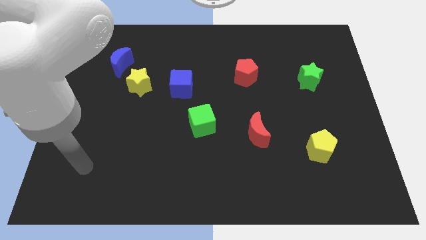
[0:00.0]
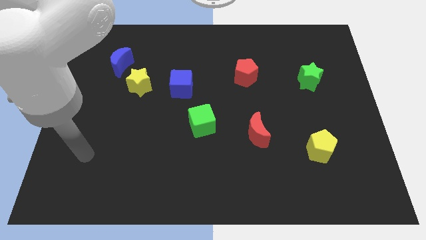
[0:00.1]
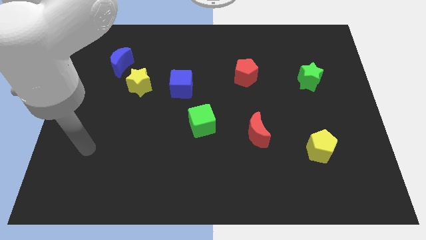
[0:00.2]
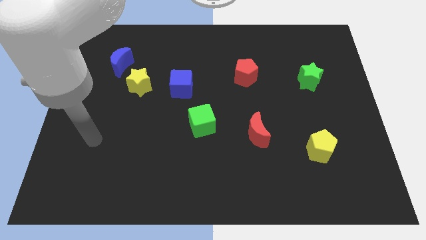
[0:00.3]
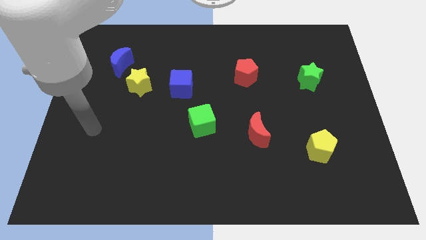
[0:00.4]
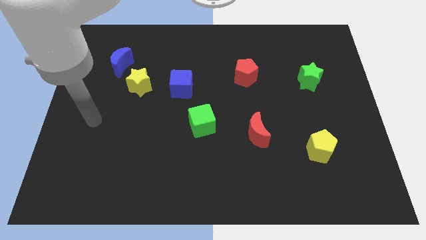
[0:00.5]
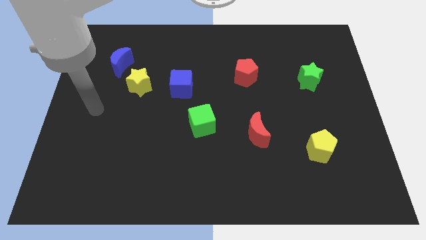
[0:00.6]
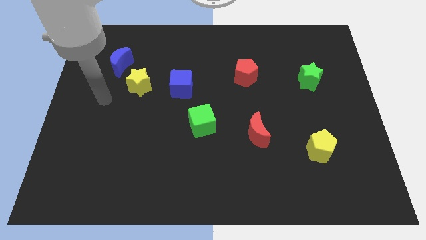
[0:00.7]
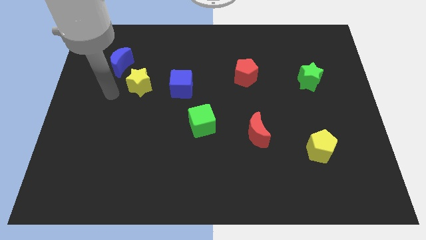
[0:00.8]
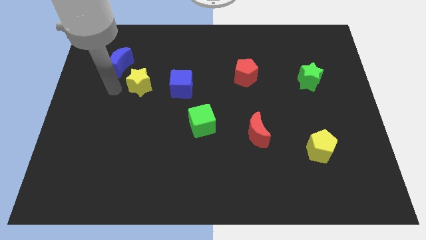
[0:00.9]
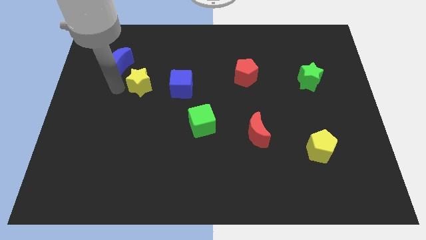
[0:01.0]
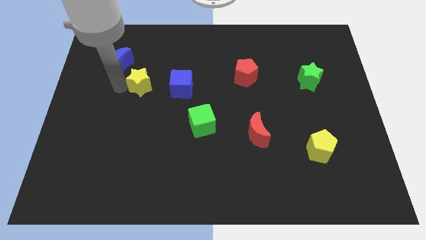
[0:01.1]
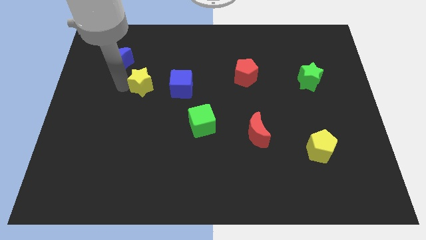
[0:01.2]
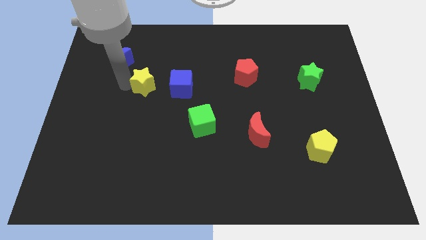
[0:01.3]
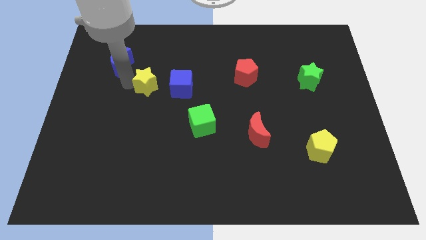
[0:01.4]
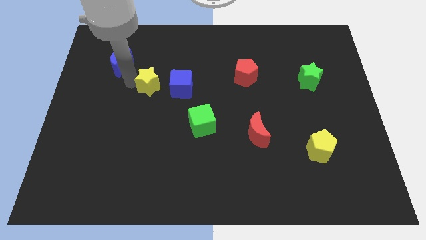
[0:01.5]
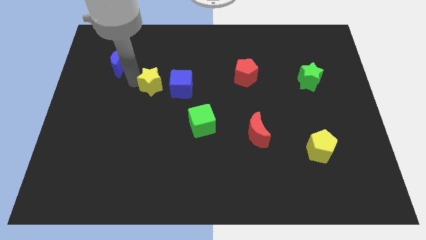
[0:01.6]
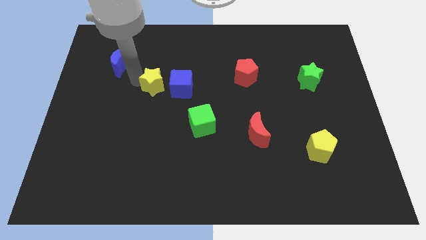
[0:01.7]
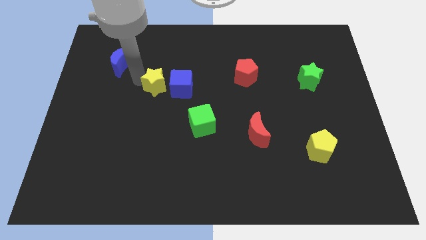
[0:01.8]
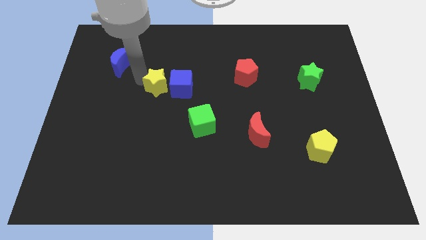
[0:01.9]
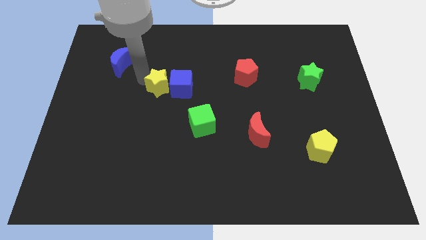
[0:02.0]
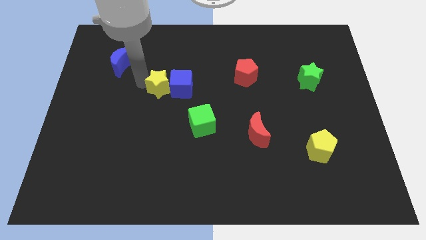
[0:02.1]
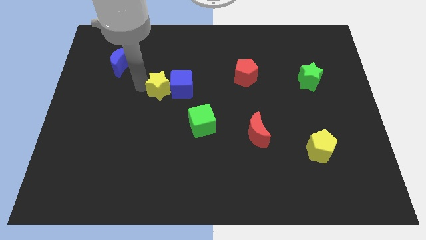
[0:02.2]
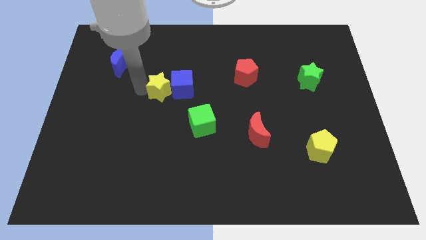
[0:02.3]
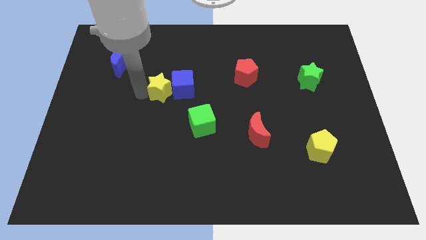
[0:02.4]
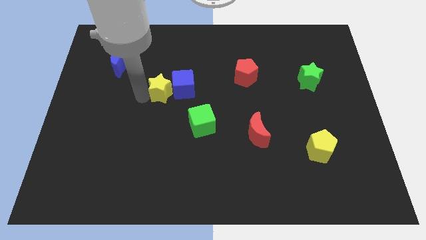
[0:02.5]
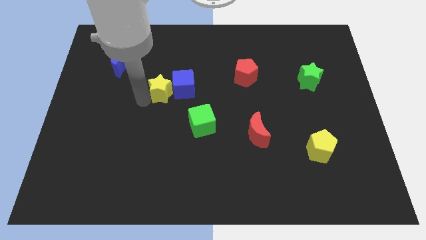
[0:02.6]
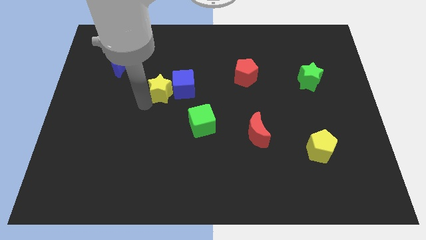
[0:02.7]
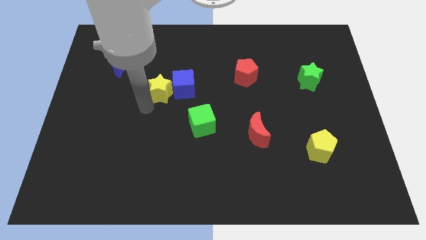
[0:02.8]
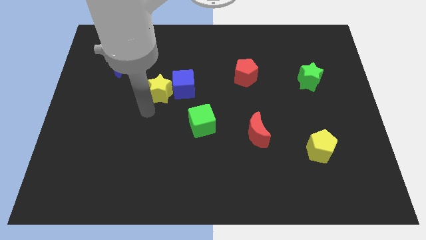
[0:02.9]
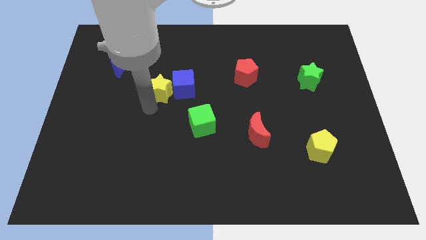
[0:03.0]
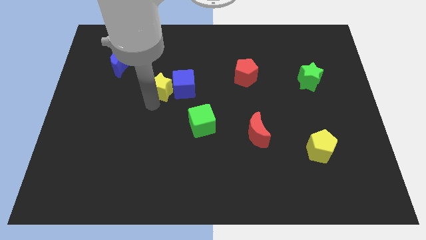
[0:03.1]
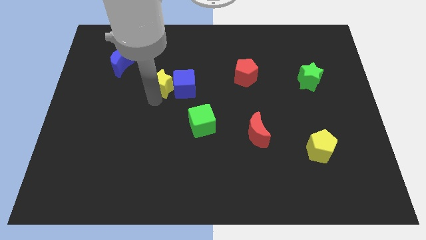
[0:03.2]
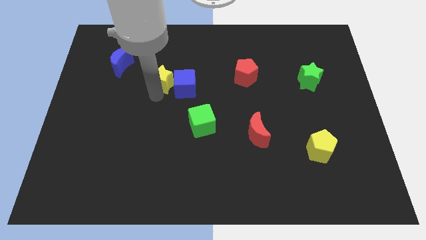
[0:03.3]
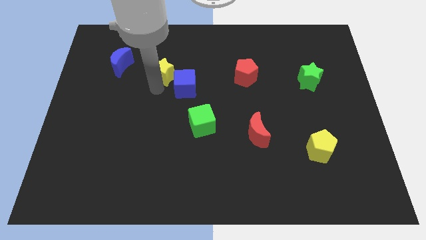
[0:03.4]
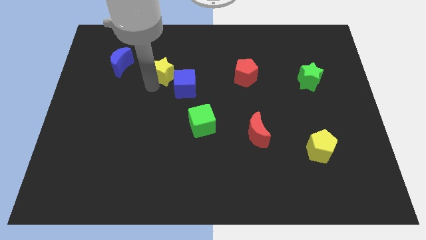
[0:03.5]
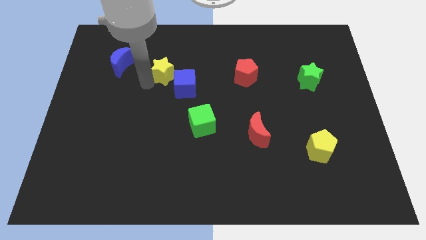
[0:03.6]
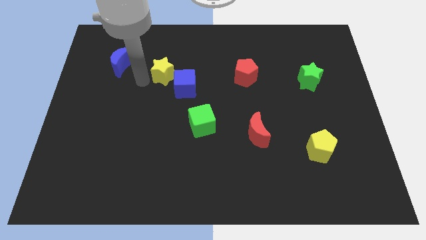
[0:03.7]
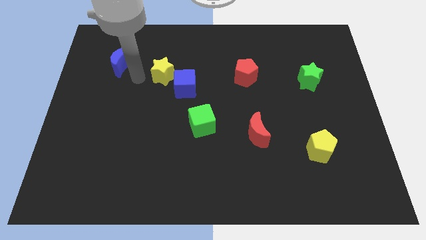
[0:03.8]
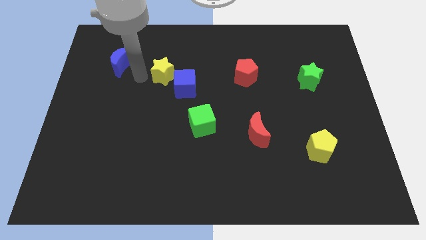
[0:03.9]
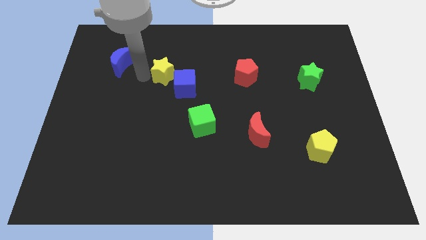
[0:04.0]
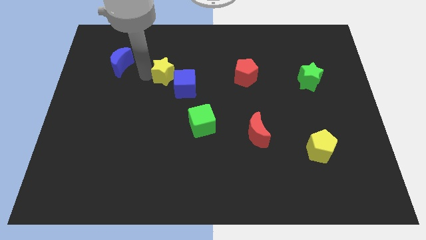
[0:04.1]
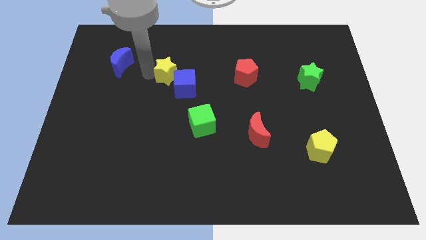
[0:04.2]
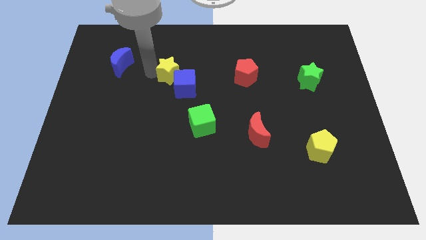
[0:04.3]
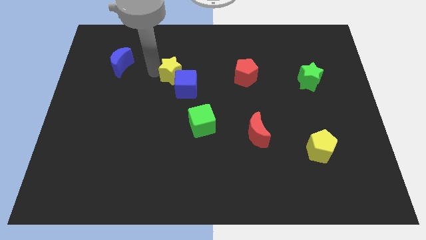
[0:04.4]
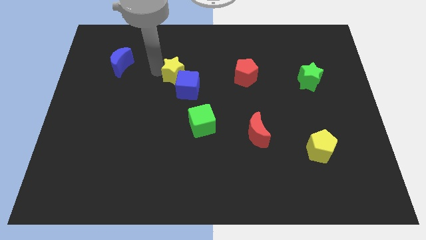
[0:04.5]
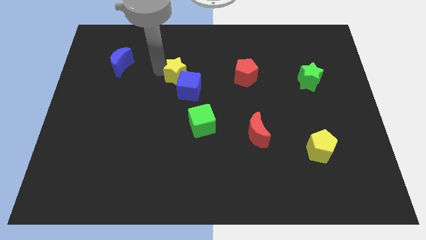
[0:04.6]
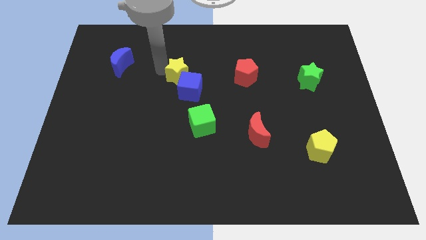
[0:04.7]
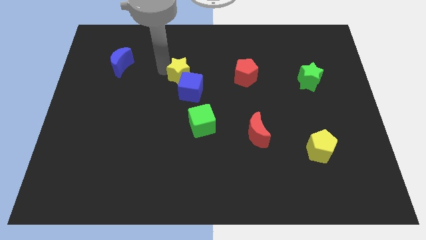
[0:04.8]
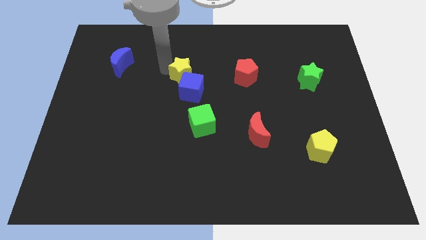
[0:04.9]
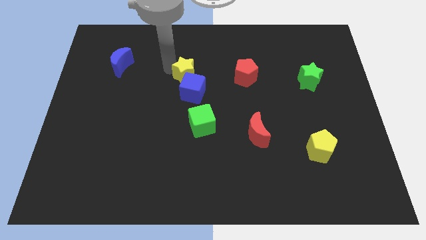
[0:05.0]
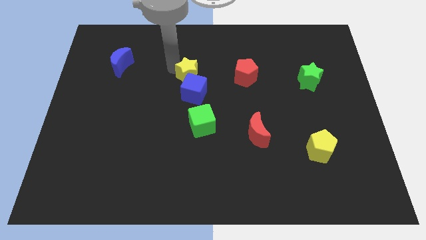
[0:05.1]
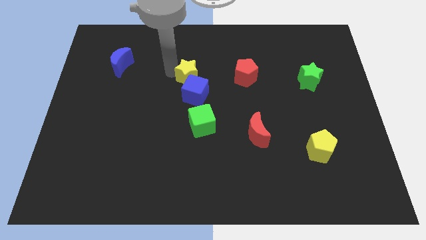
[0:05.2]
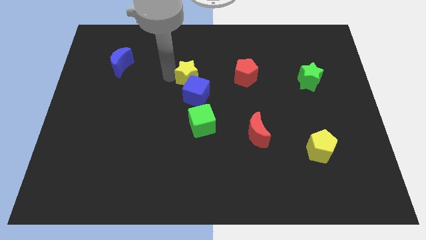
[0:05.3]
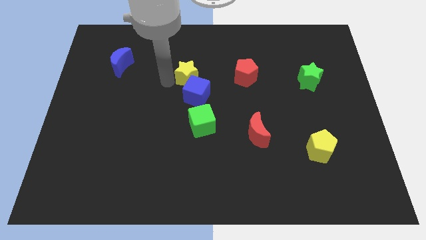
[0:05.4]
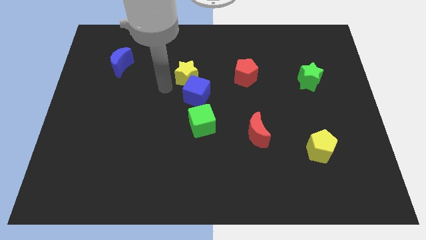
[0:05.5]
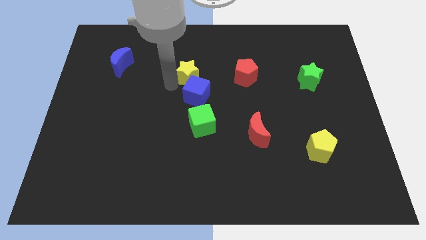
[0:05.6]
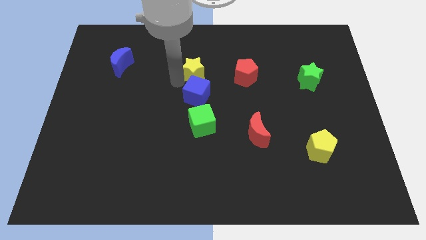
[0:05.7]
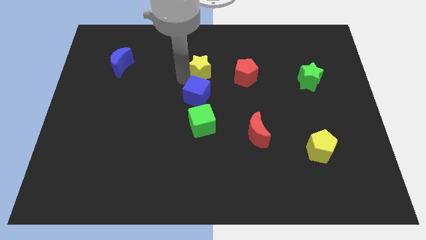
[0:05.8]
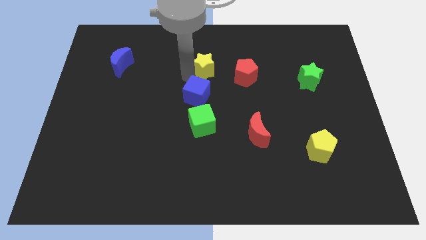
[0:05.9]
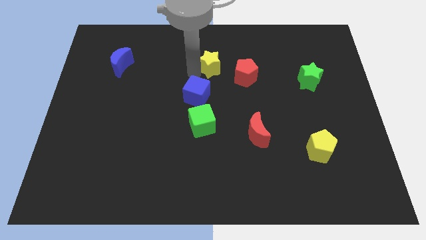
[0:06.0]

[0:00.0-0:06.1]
move the yellow star diagonally up and to the left of the red pentagon
